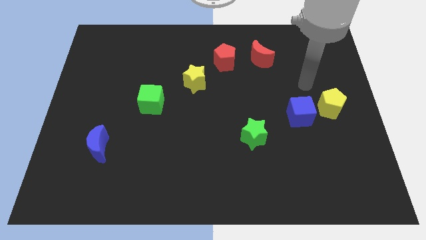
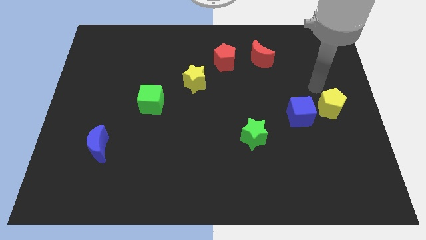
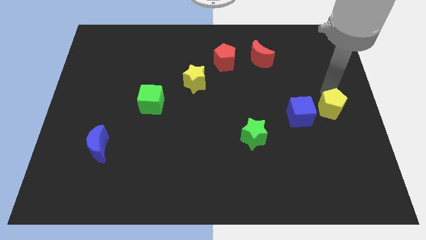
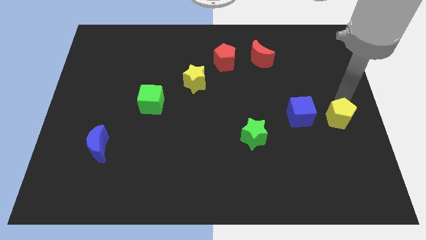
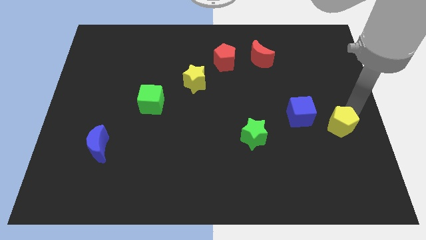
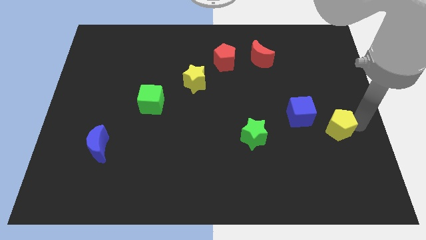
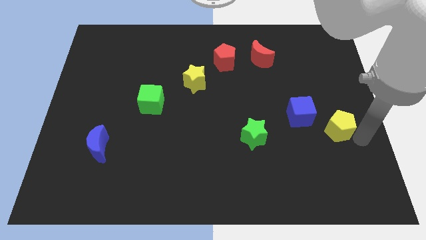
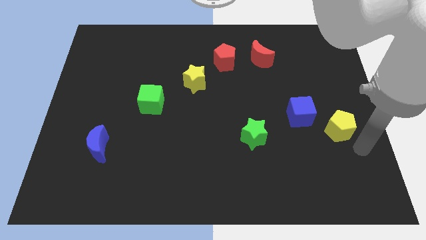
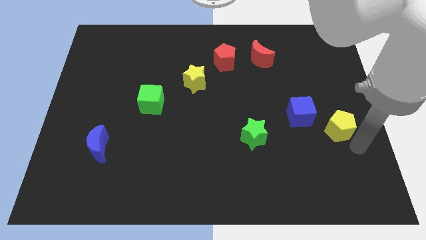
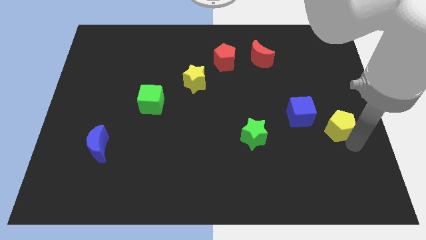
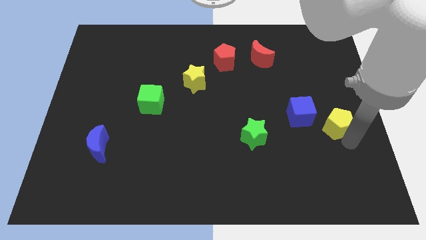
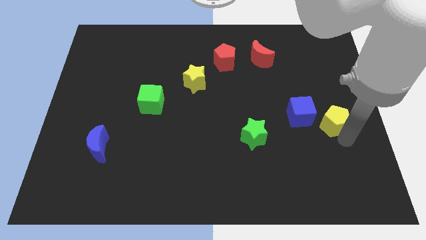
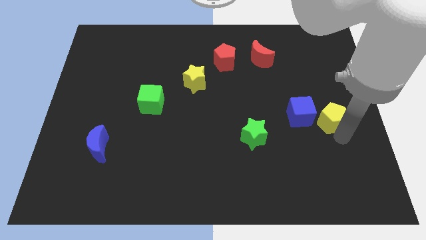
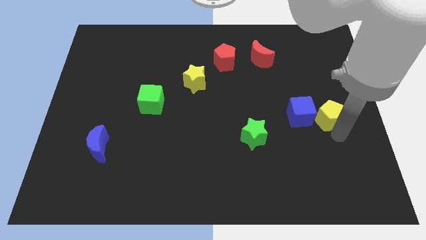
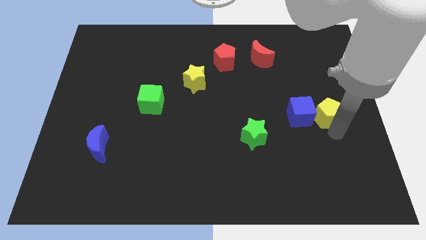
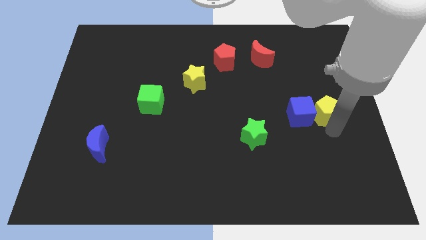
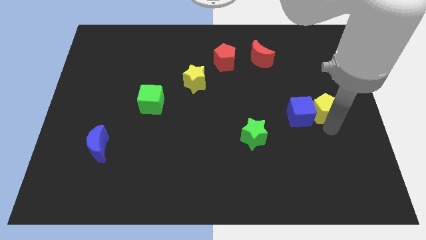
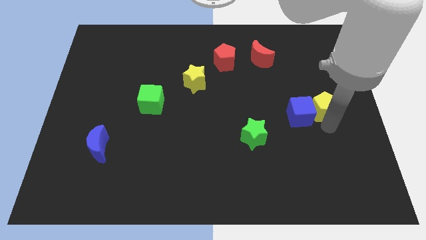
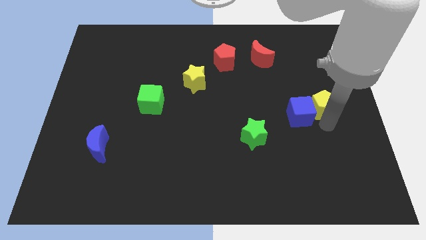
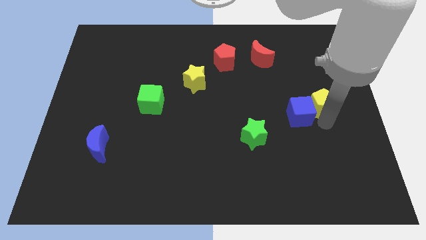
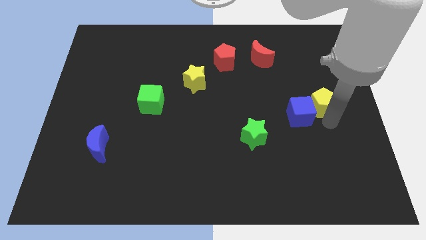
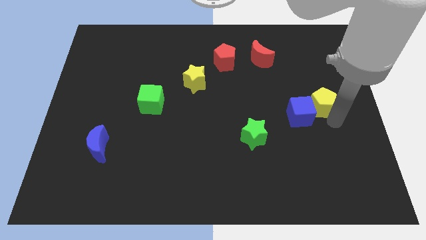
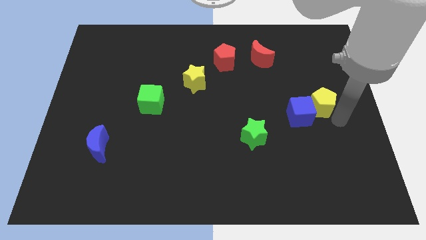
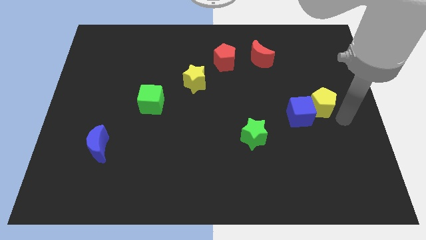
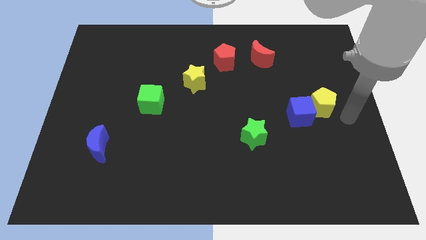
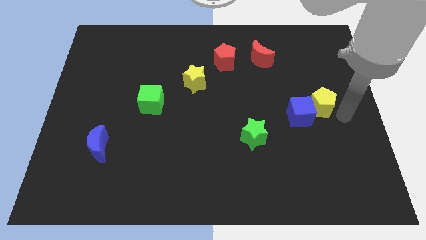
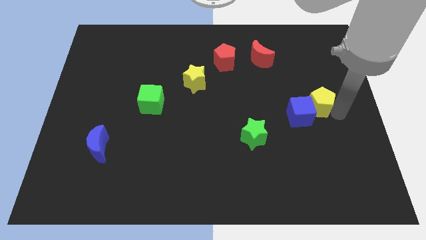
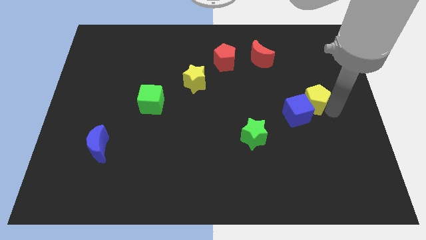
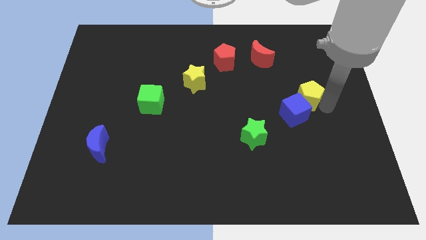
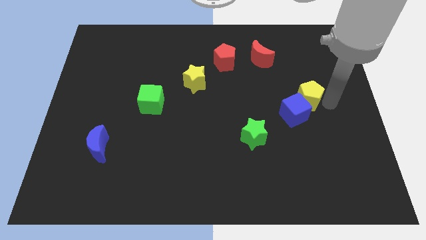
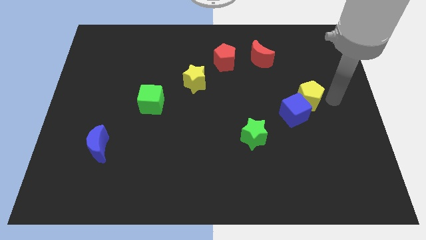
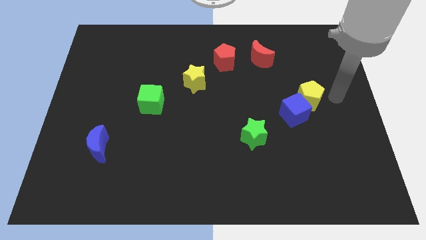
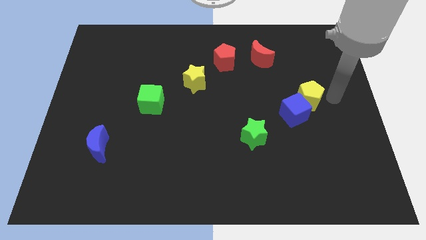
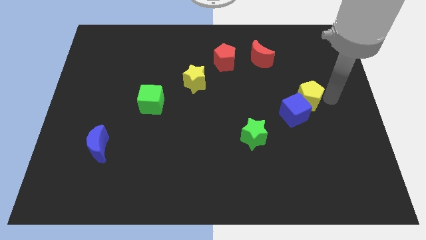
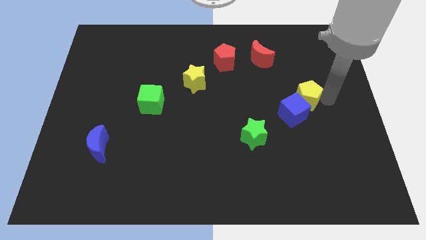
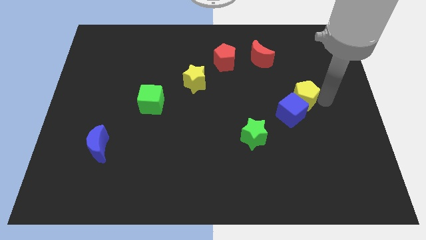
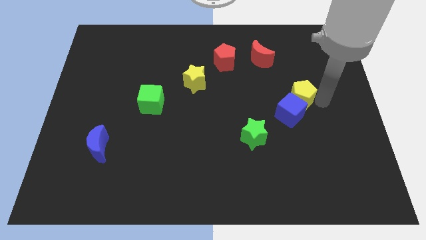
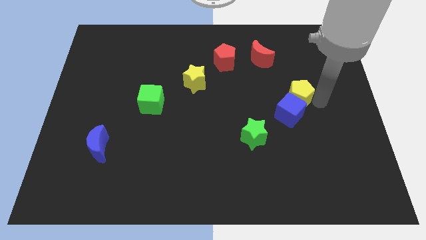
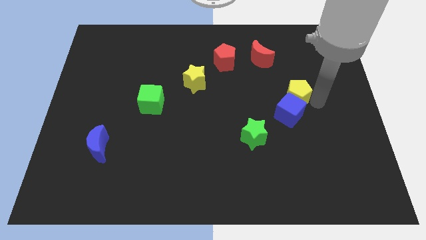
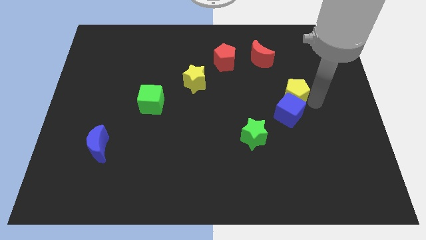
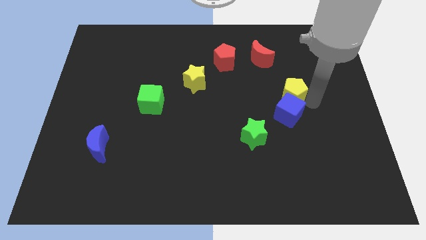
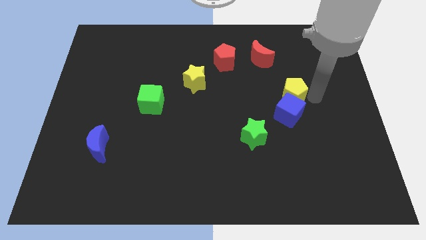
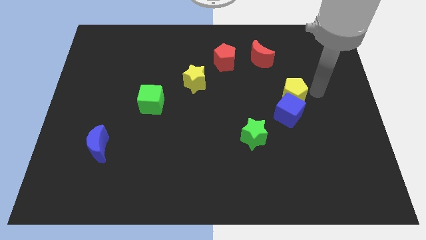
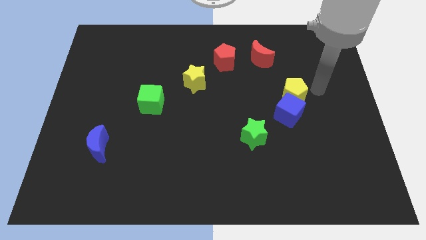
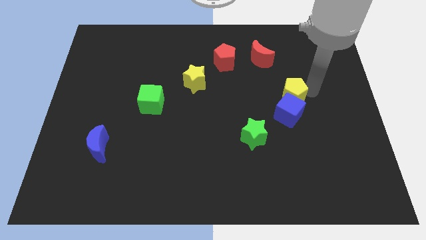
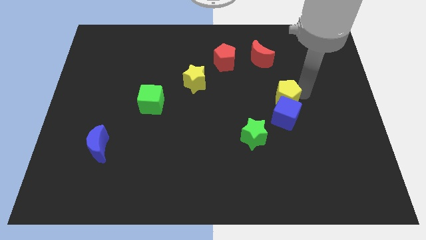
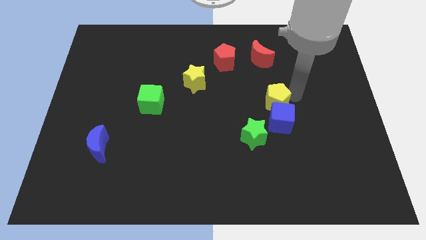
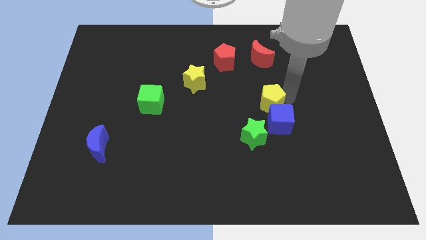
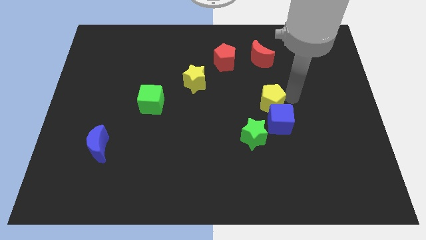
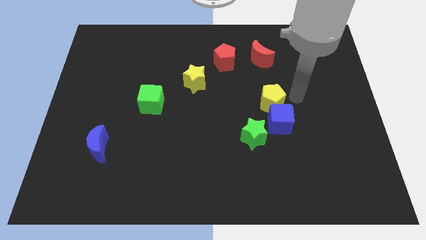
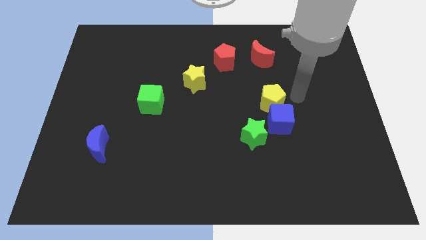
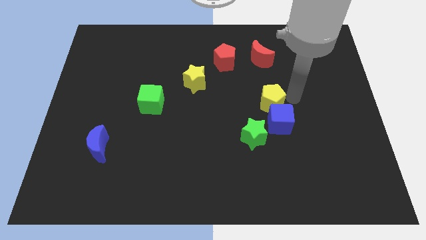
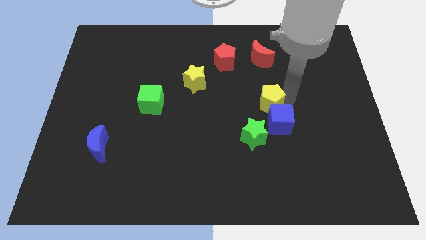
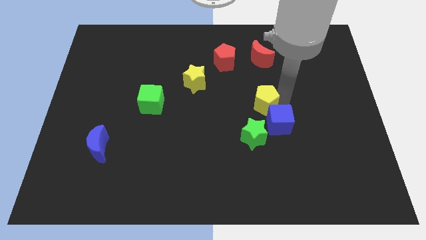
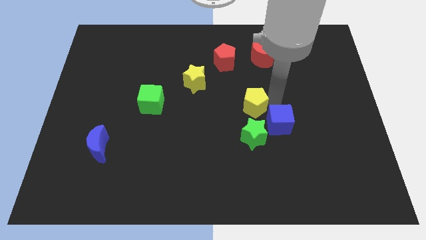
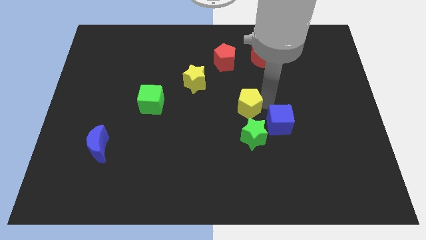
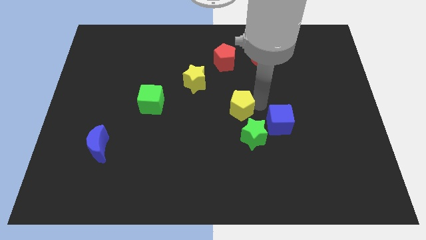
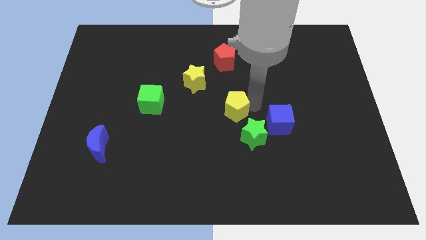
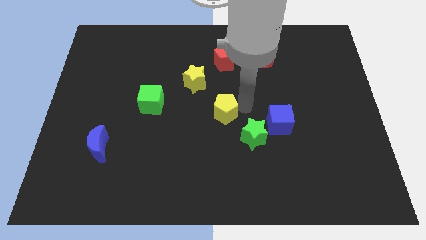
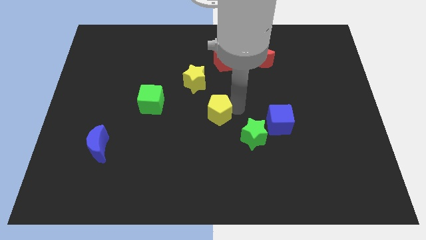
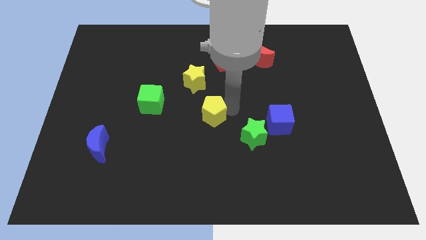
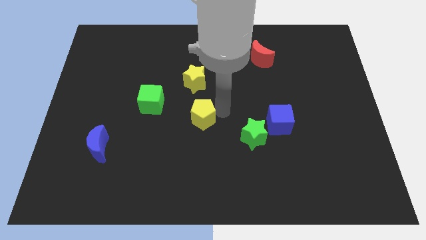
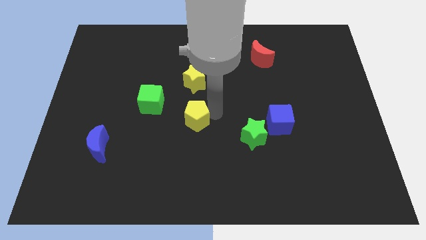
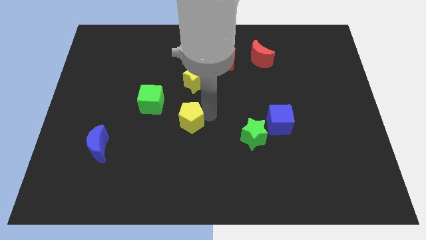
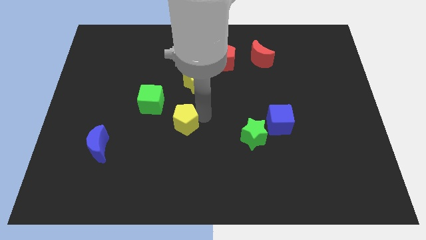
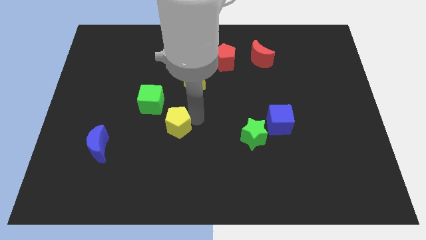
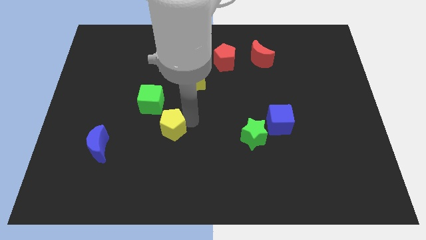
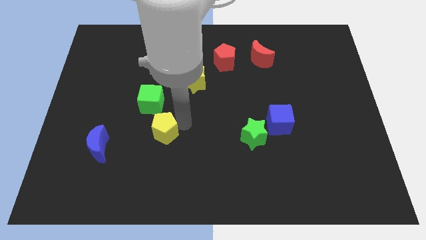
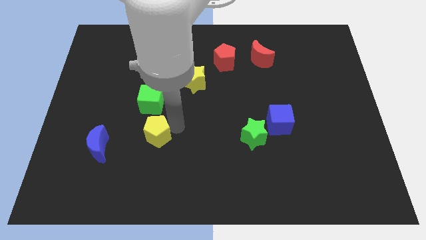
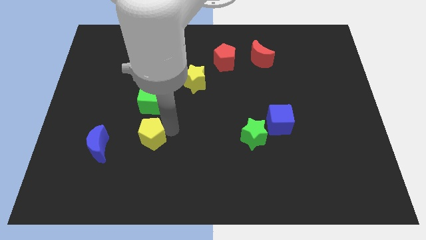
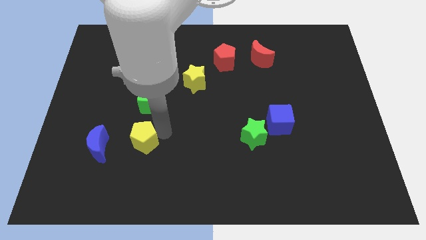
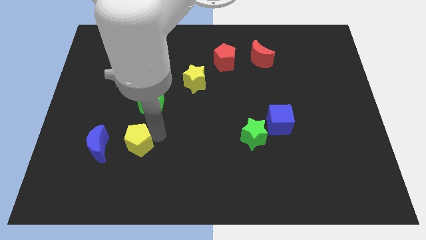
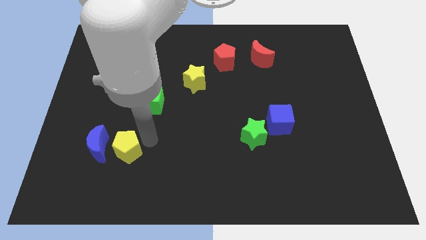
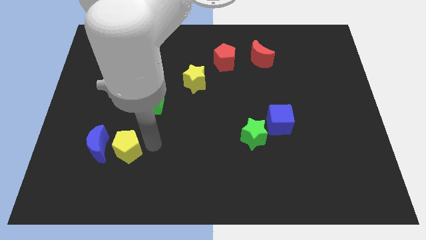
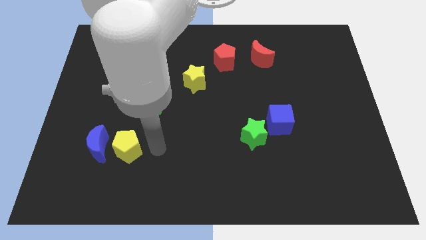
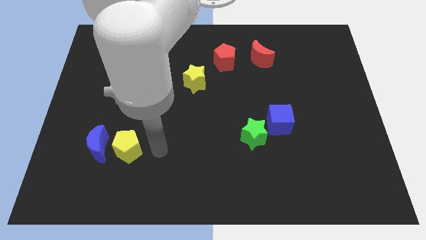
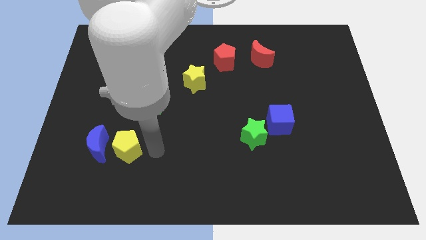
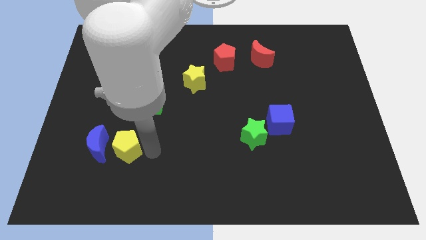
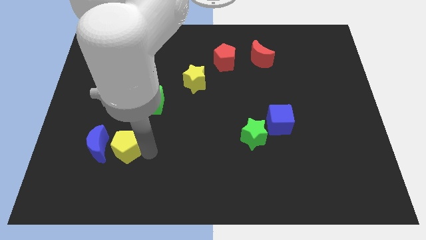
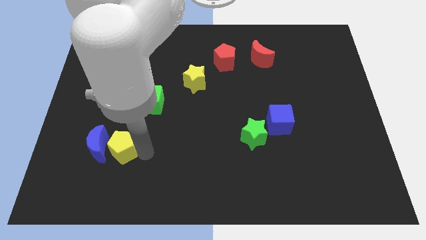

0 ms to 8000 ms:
put the yellow pentagon towards the blue moon

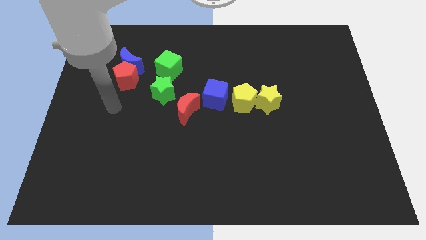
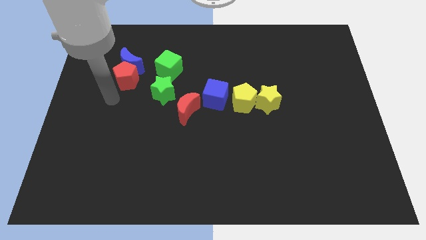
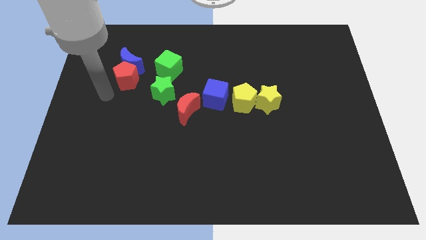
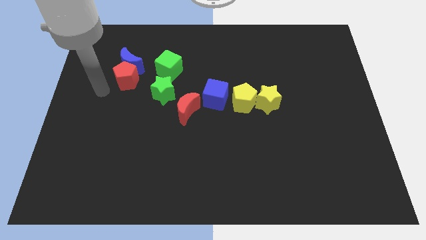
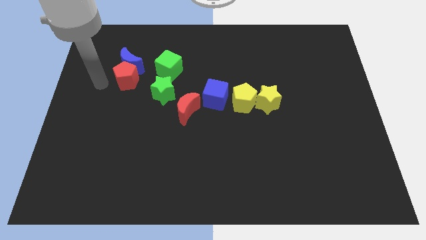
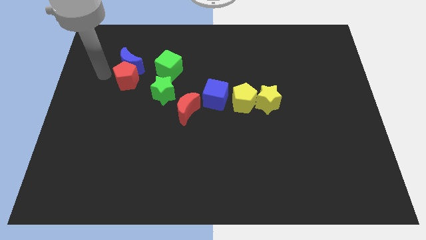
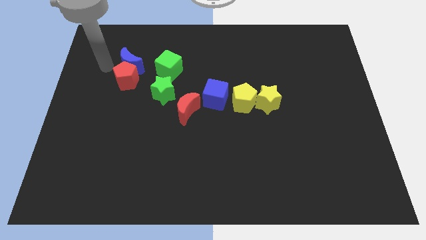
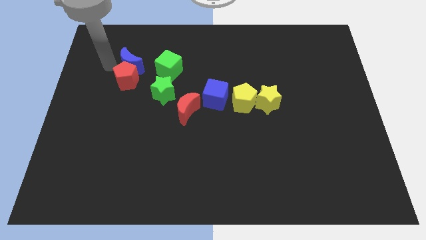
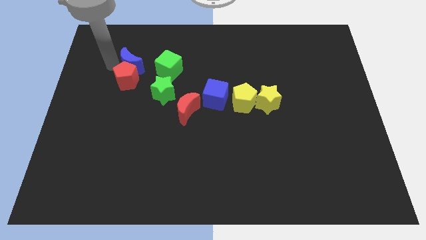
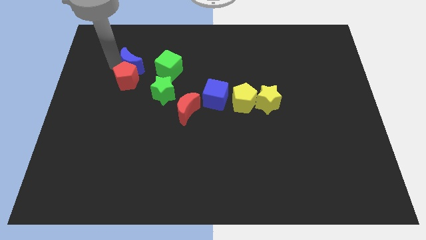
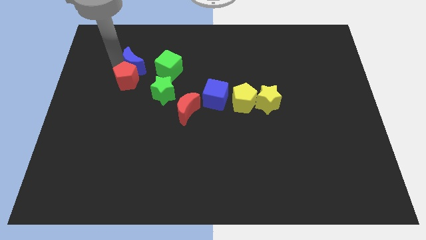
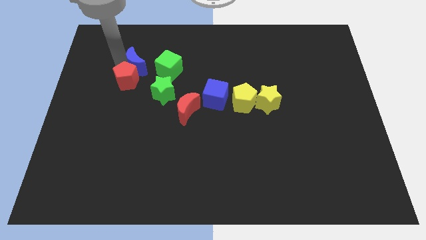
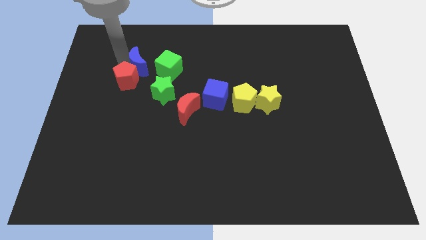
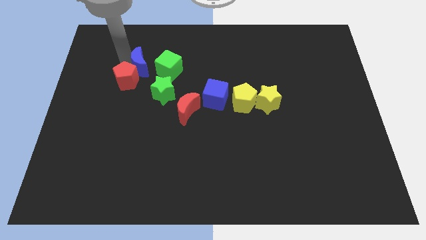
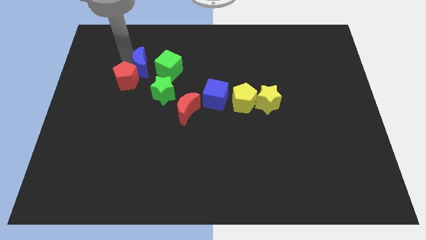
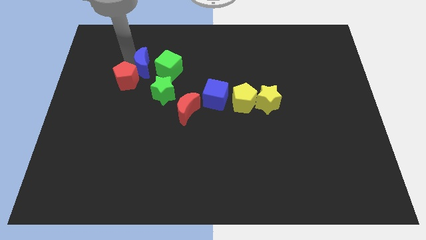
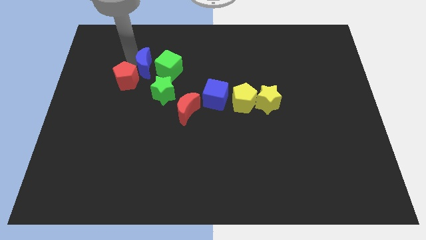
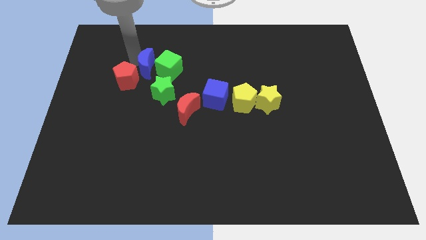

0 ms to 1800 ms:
push the blue moon next to the green cube
